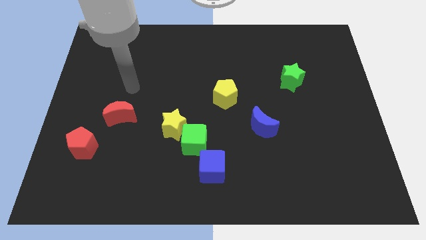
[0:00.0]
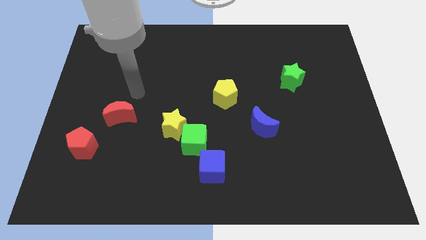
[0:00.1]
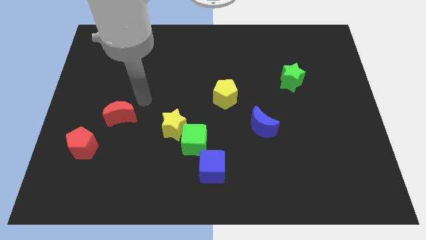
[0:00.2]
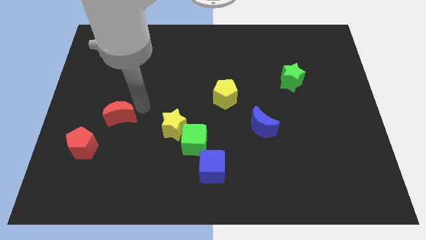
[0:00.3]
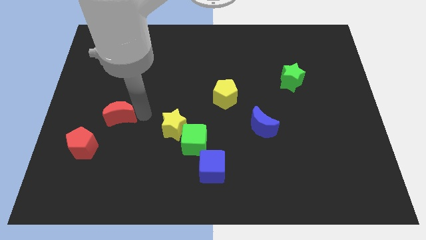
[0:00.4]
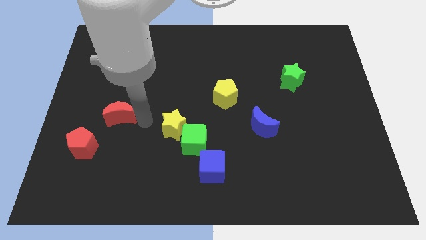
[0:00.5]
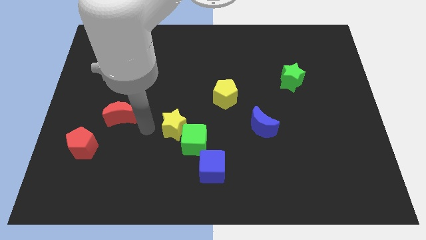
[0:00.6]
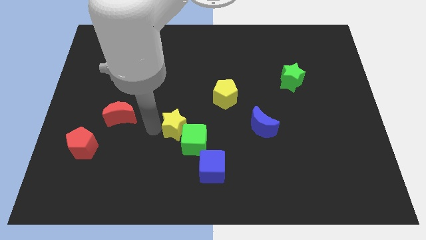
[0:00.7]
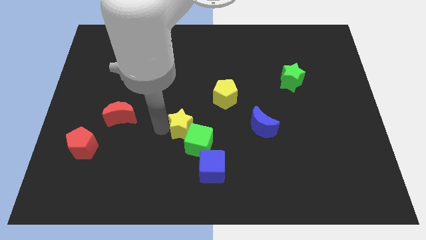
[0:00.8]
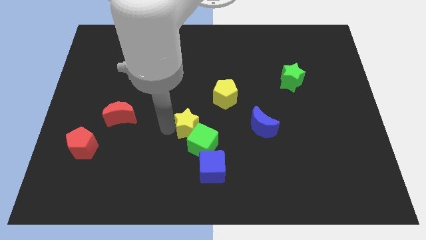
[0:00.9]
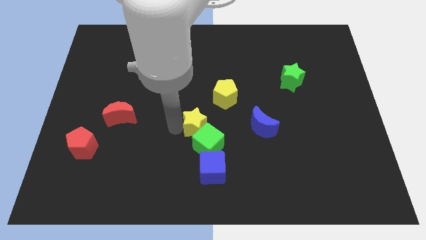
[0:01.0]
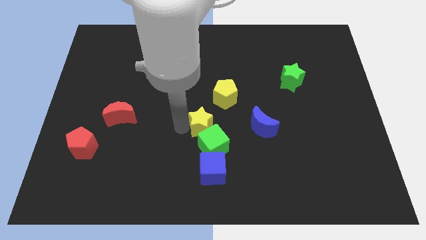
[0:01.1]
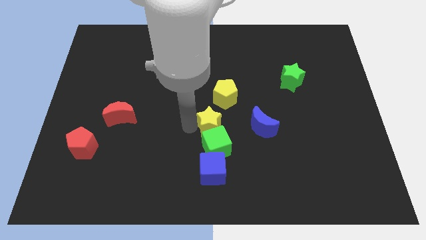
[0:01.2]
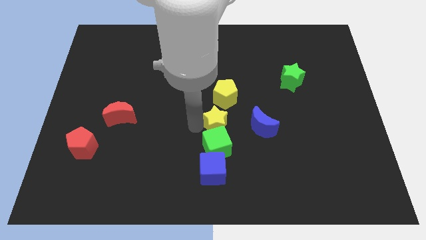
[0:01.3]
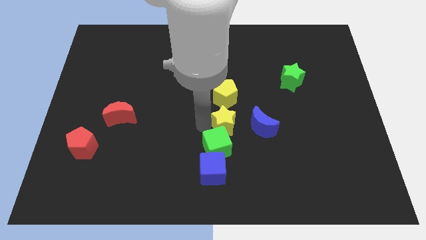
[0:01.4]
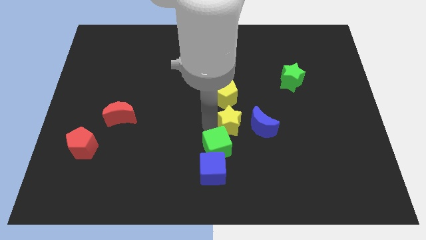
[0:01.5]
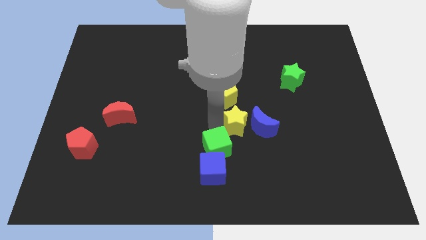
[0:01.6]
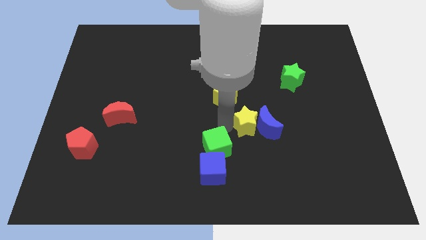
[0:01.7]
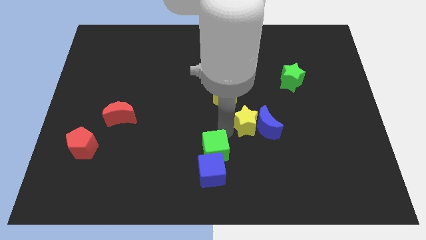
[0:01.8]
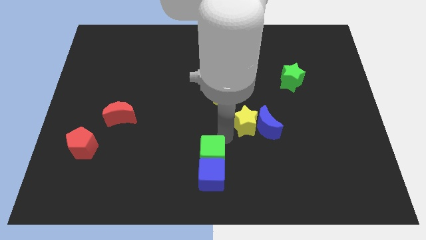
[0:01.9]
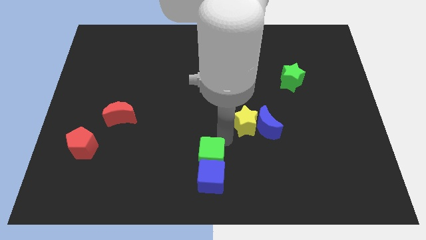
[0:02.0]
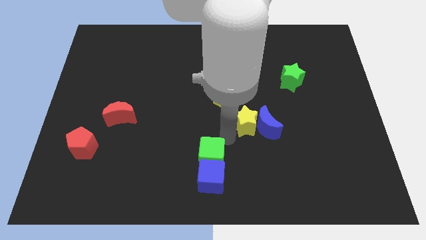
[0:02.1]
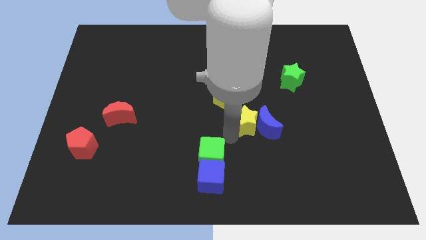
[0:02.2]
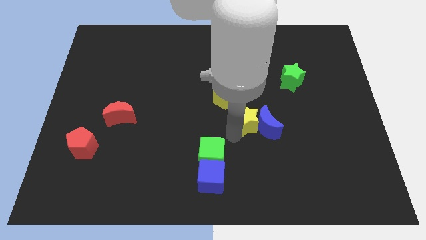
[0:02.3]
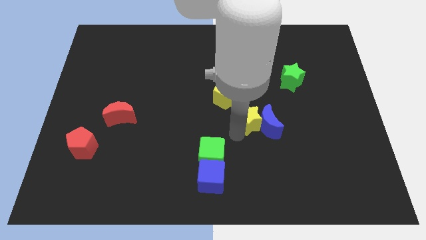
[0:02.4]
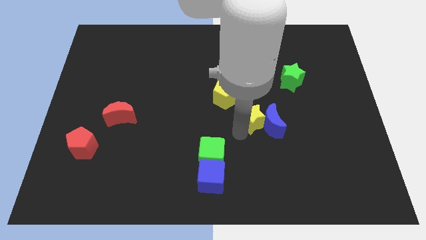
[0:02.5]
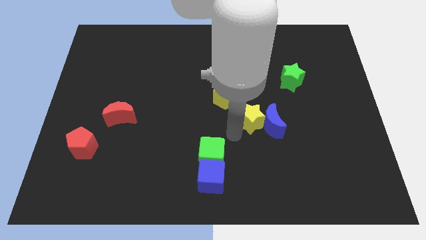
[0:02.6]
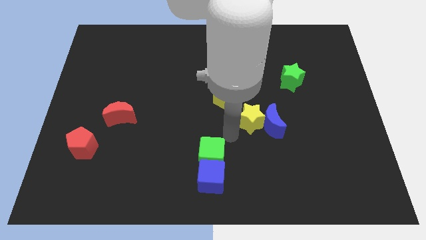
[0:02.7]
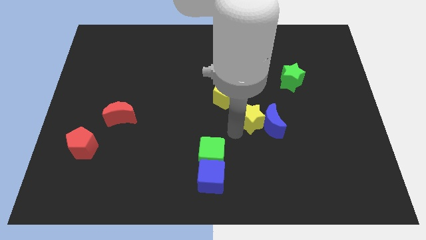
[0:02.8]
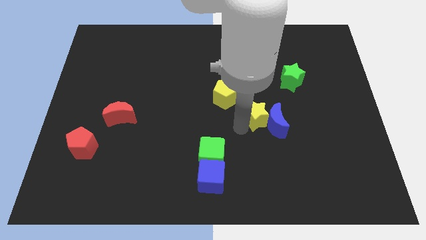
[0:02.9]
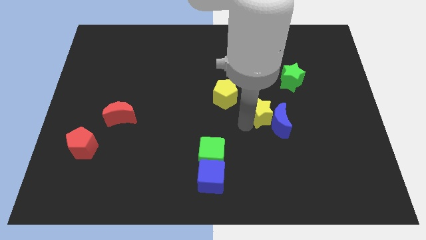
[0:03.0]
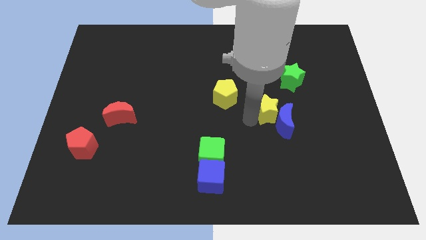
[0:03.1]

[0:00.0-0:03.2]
move the yellow star right

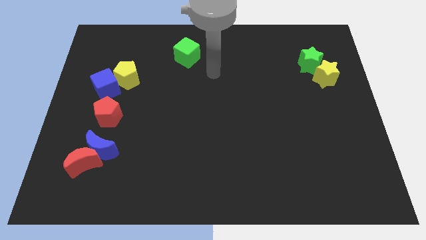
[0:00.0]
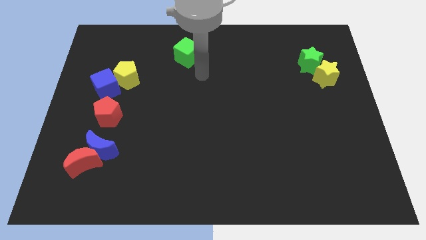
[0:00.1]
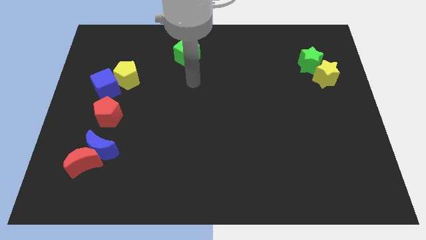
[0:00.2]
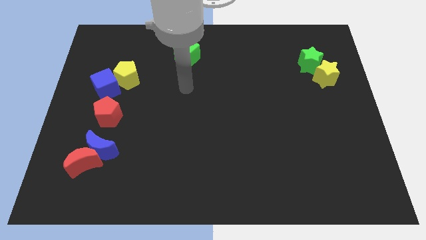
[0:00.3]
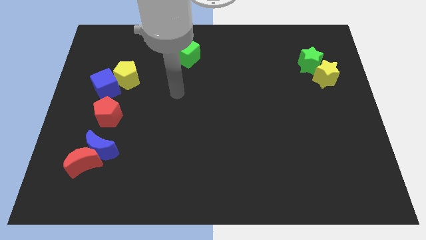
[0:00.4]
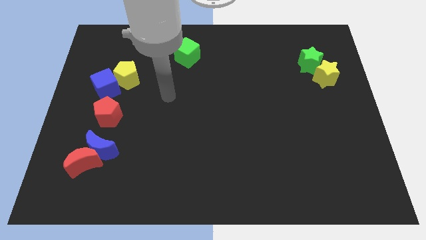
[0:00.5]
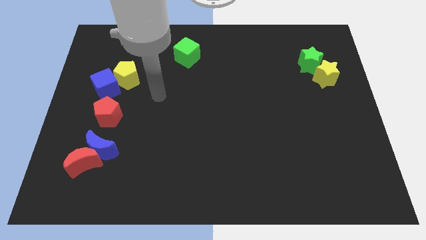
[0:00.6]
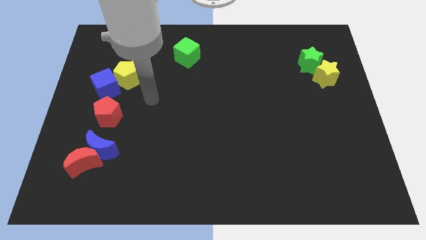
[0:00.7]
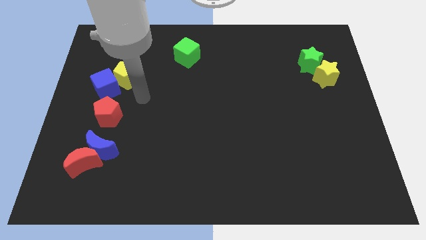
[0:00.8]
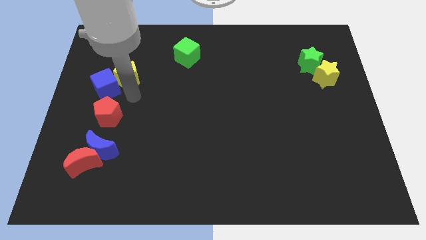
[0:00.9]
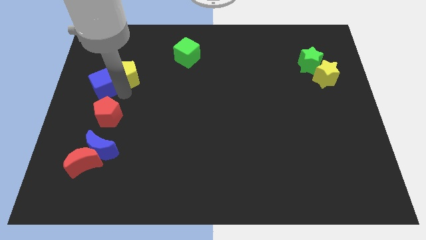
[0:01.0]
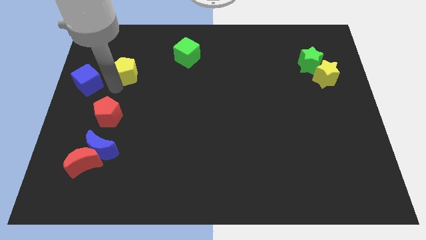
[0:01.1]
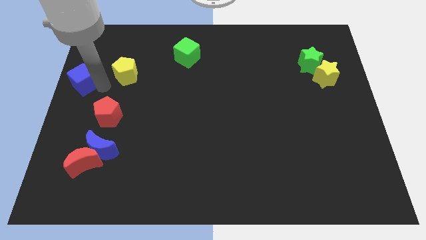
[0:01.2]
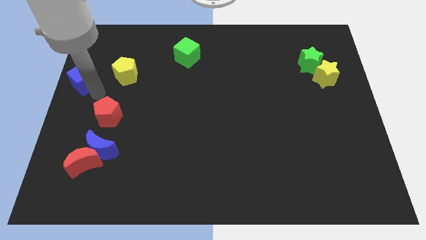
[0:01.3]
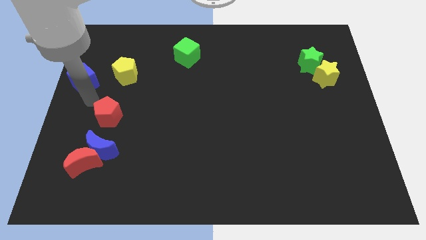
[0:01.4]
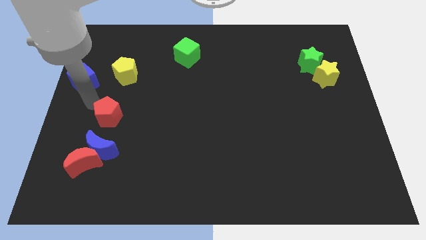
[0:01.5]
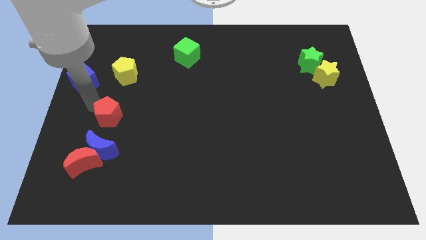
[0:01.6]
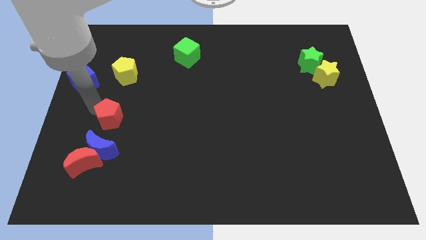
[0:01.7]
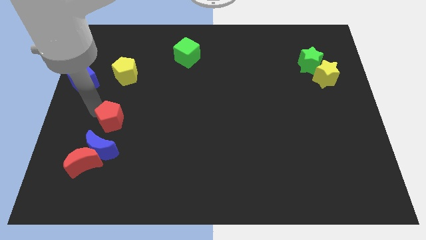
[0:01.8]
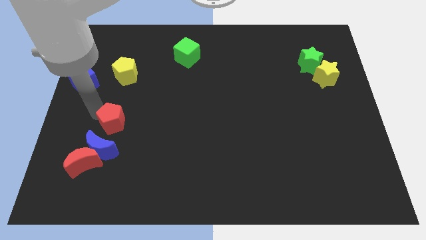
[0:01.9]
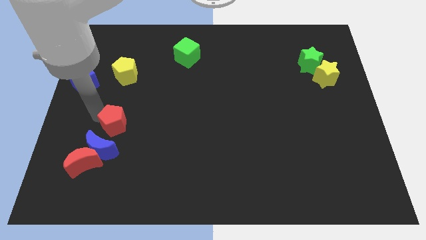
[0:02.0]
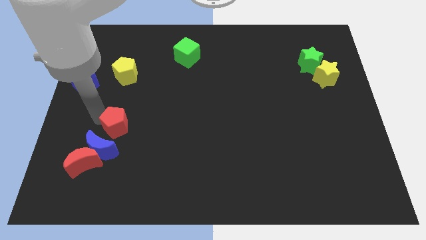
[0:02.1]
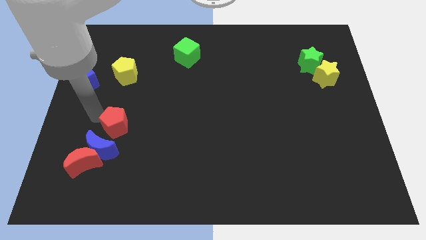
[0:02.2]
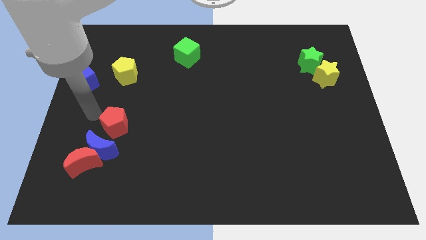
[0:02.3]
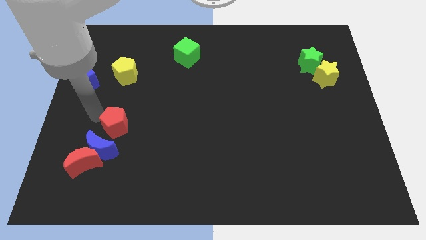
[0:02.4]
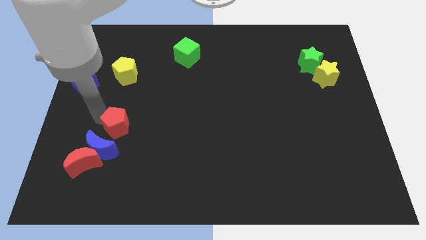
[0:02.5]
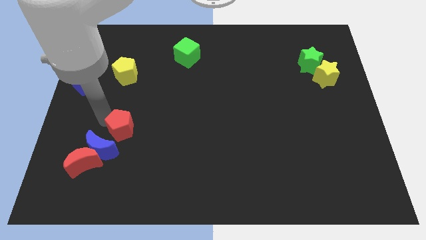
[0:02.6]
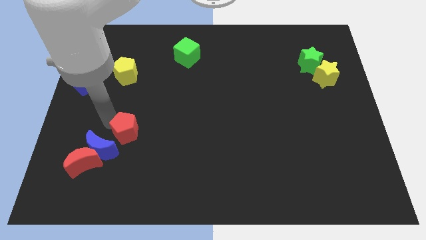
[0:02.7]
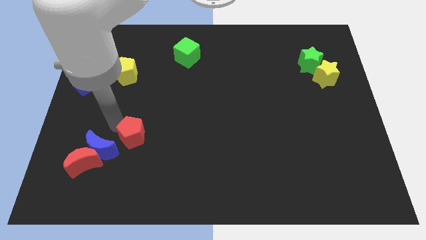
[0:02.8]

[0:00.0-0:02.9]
push the red pentagon a bit down and then right

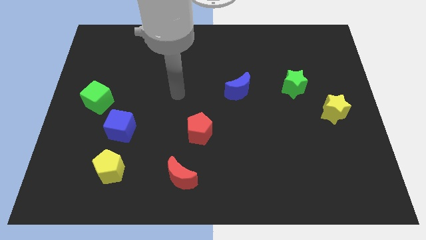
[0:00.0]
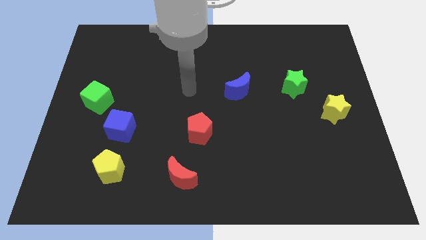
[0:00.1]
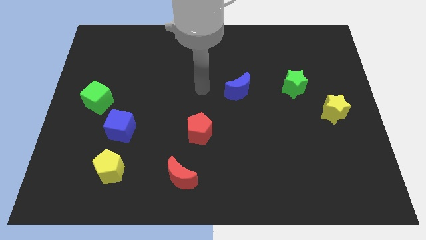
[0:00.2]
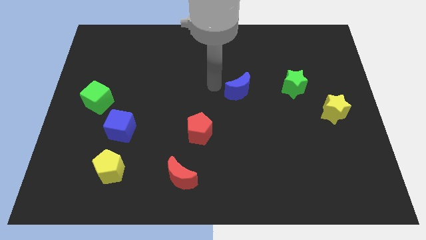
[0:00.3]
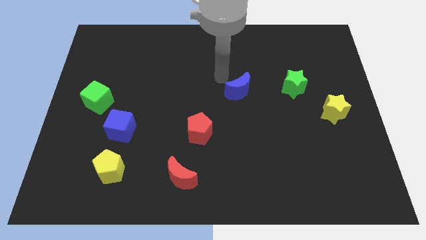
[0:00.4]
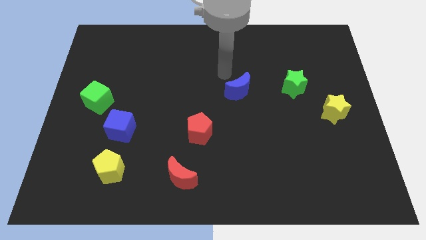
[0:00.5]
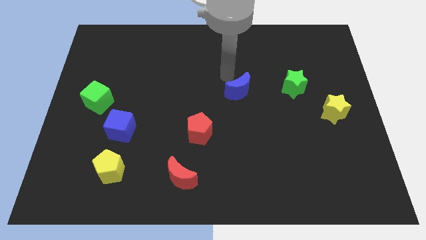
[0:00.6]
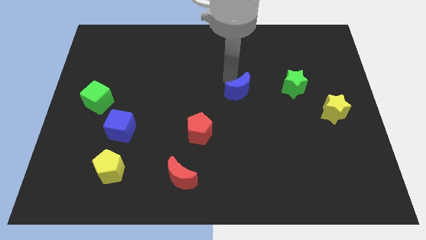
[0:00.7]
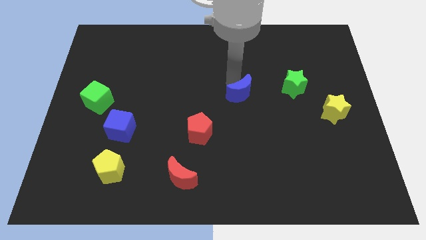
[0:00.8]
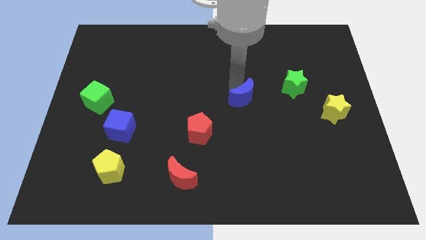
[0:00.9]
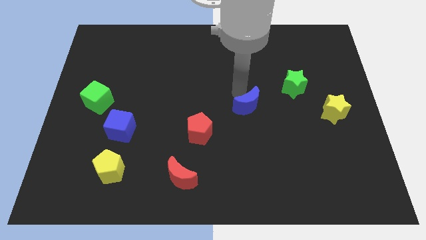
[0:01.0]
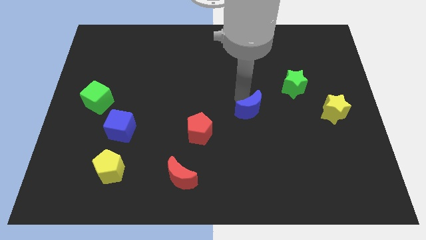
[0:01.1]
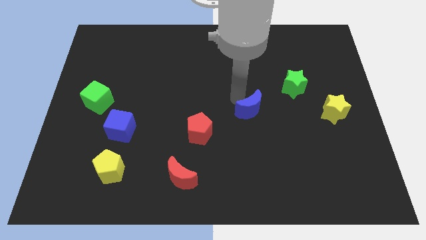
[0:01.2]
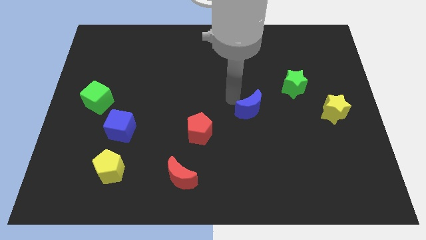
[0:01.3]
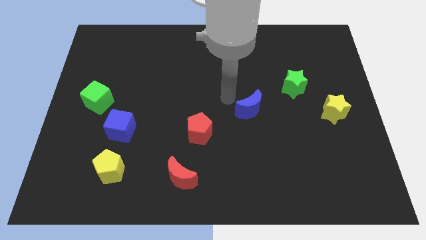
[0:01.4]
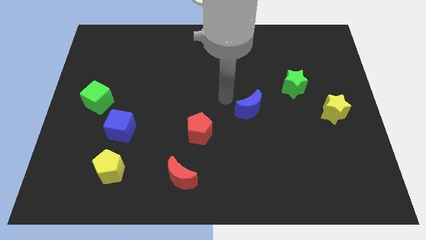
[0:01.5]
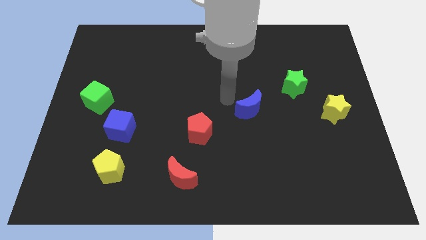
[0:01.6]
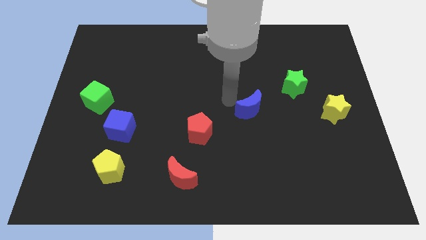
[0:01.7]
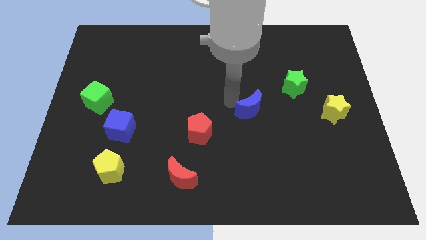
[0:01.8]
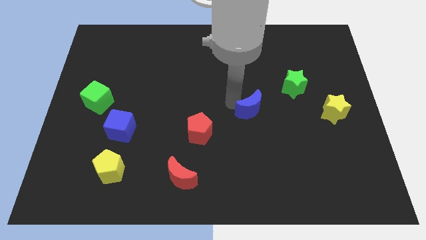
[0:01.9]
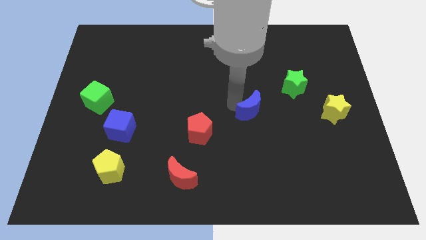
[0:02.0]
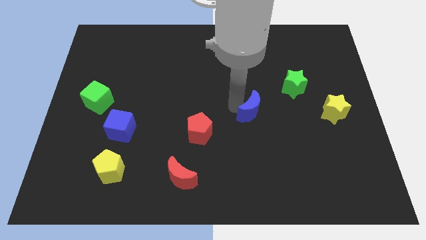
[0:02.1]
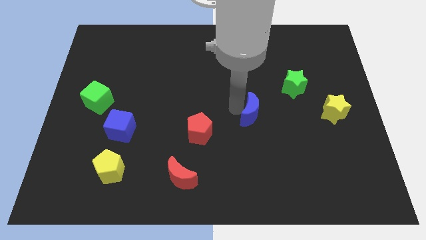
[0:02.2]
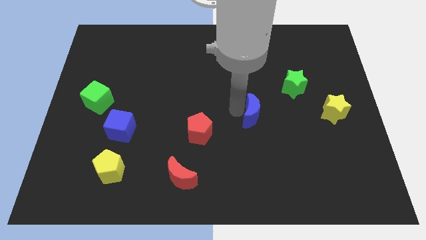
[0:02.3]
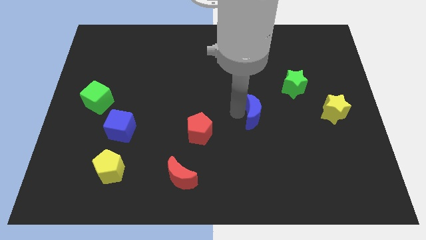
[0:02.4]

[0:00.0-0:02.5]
push the blue moon a little downwards and then to the right

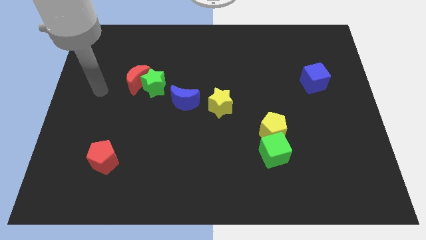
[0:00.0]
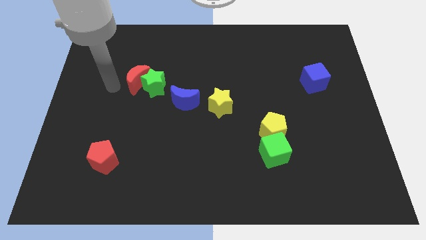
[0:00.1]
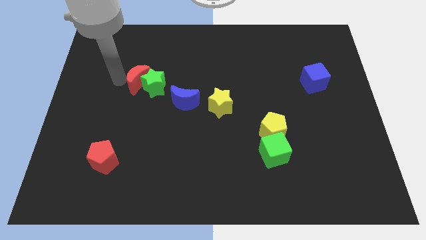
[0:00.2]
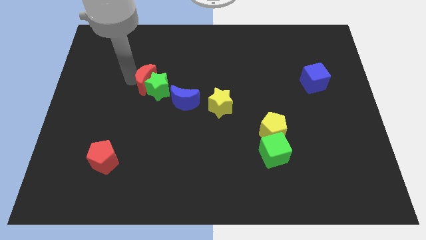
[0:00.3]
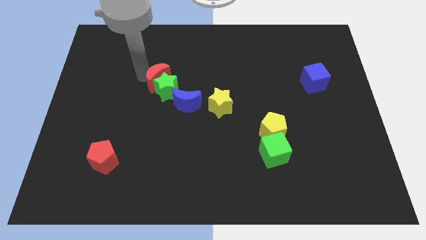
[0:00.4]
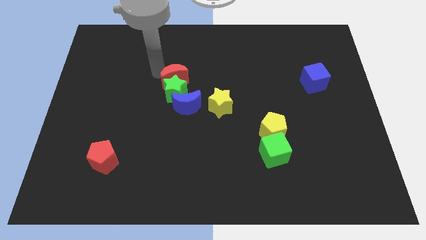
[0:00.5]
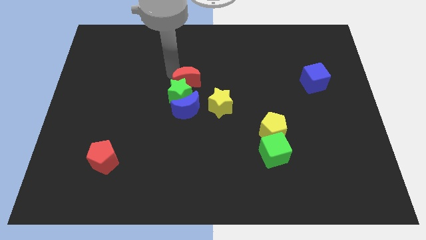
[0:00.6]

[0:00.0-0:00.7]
slightly push the green star down and then to the right
